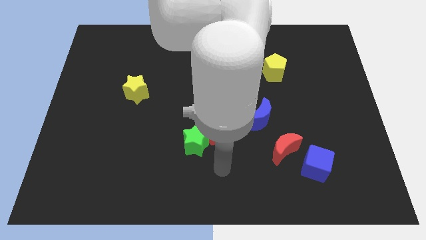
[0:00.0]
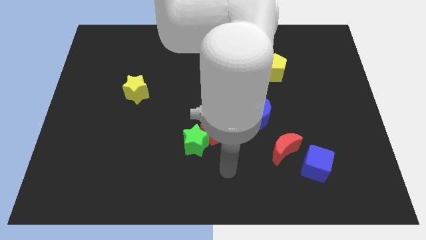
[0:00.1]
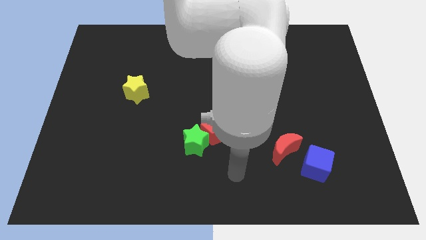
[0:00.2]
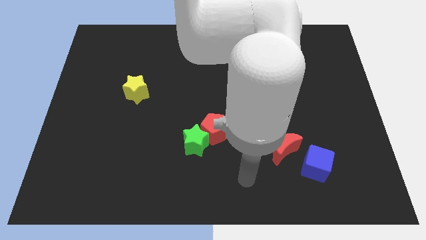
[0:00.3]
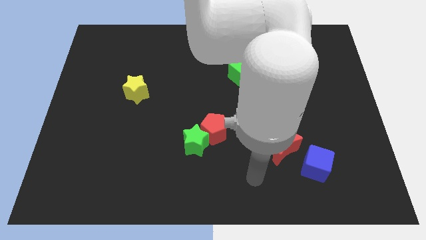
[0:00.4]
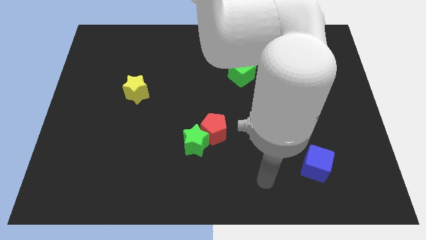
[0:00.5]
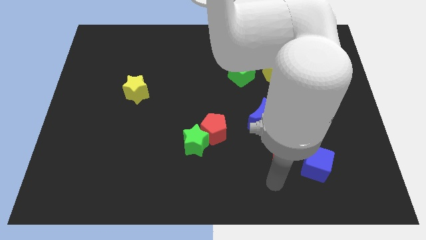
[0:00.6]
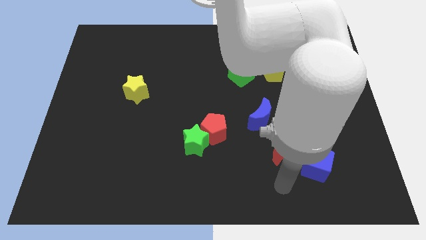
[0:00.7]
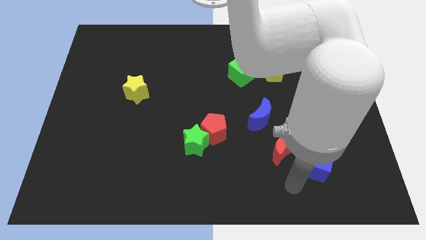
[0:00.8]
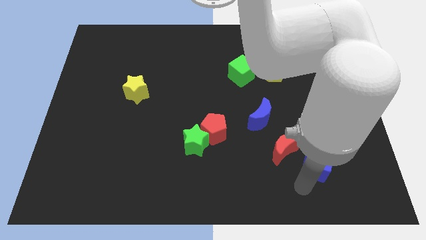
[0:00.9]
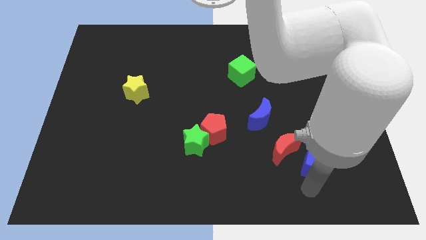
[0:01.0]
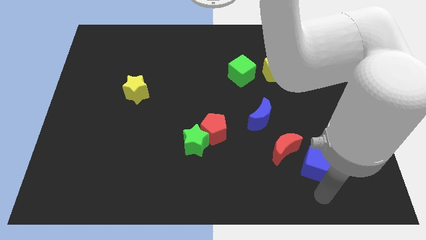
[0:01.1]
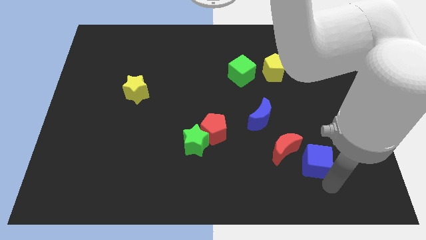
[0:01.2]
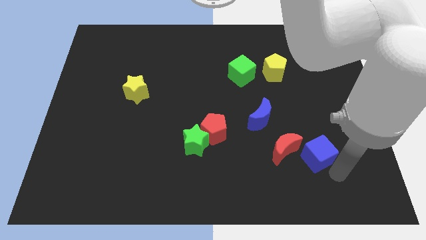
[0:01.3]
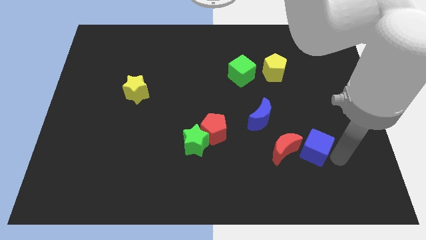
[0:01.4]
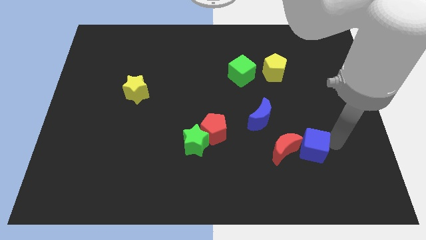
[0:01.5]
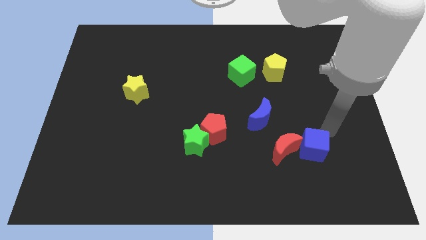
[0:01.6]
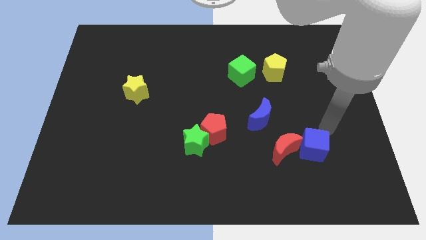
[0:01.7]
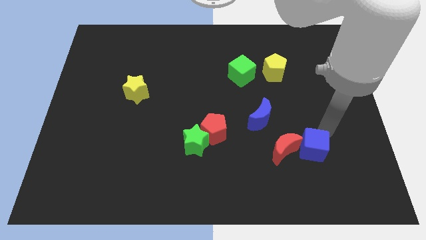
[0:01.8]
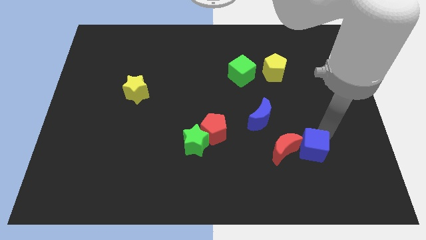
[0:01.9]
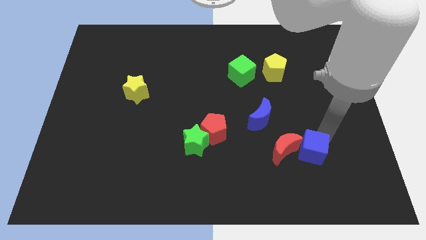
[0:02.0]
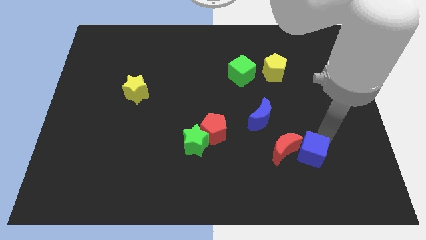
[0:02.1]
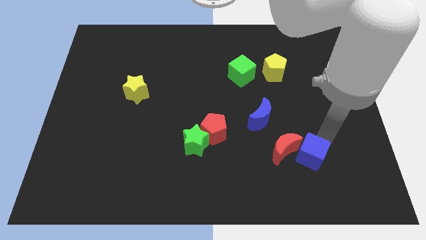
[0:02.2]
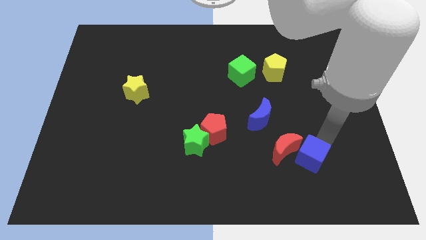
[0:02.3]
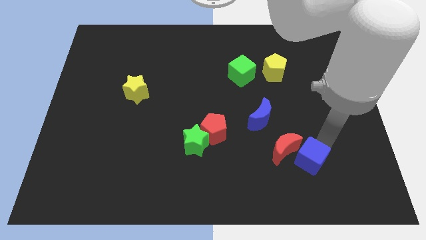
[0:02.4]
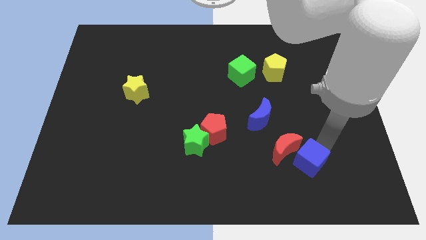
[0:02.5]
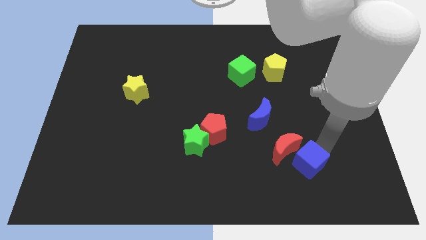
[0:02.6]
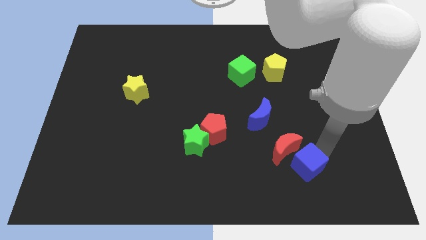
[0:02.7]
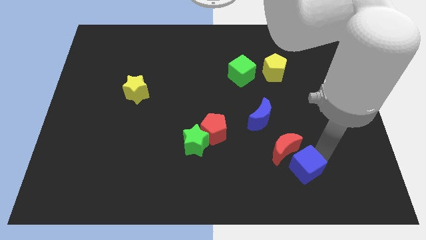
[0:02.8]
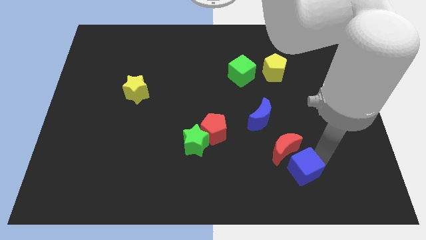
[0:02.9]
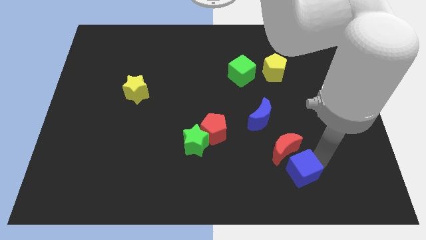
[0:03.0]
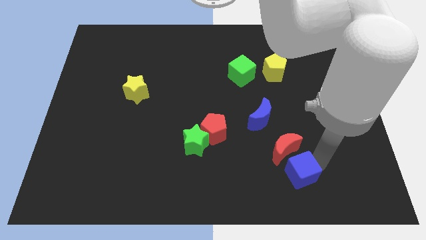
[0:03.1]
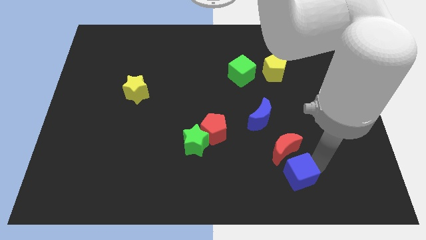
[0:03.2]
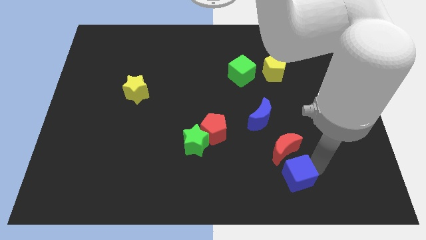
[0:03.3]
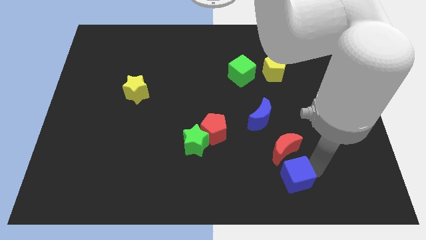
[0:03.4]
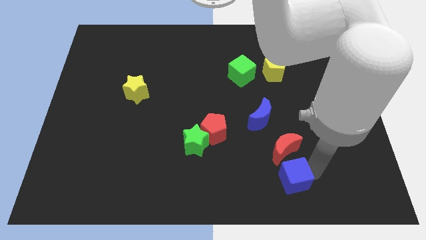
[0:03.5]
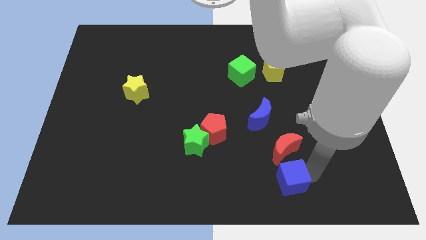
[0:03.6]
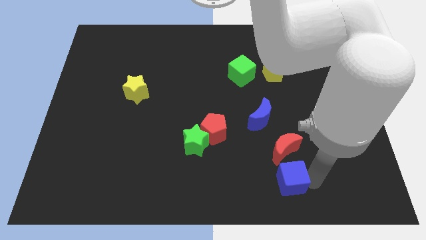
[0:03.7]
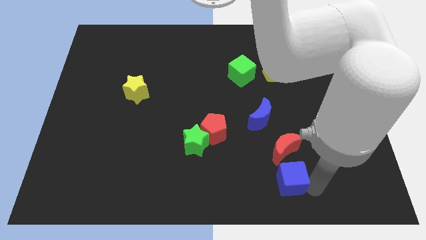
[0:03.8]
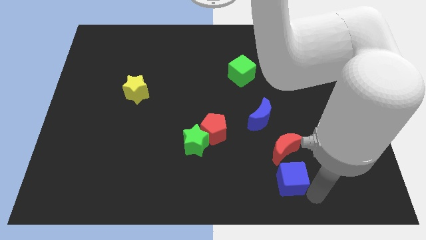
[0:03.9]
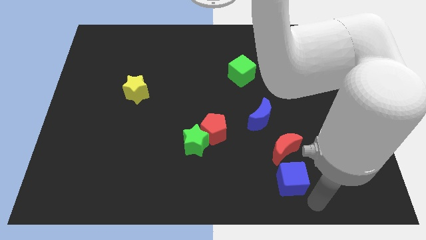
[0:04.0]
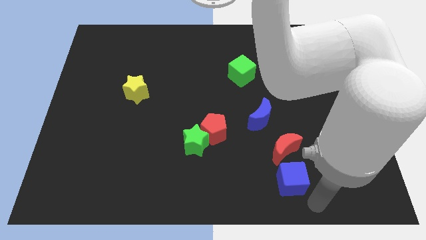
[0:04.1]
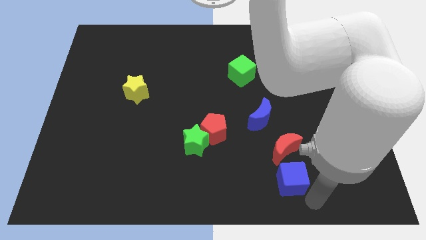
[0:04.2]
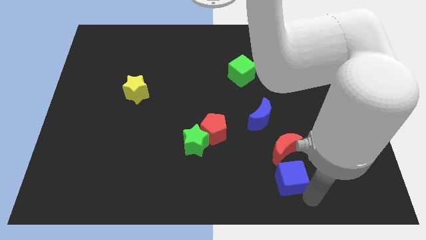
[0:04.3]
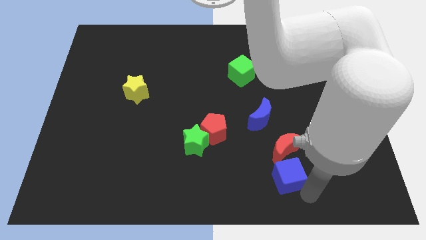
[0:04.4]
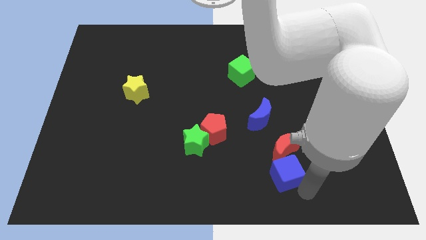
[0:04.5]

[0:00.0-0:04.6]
move the blue cube below the blue moon

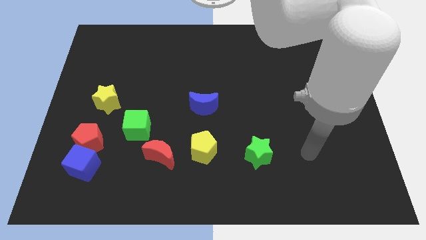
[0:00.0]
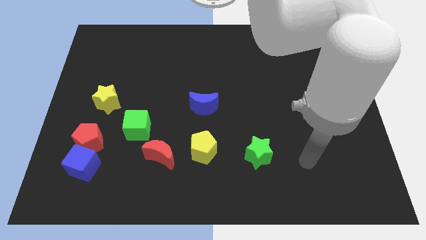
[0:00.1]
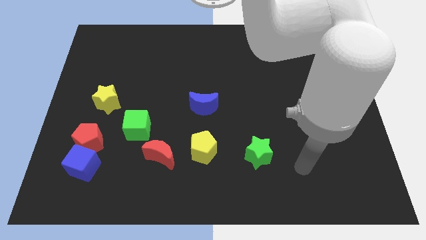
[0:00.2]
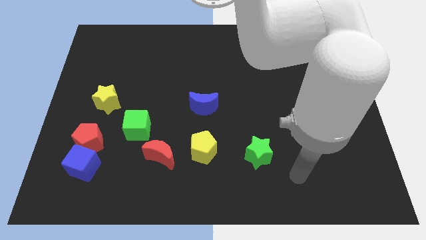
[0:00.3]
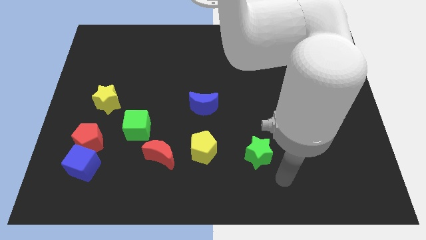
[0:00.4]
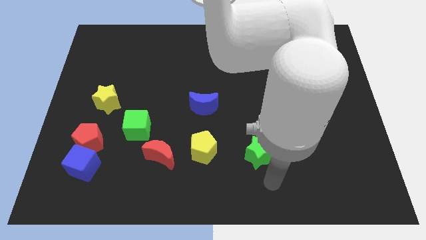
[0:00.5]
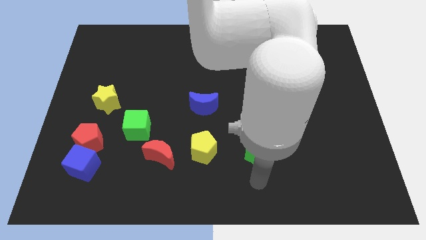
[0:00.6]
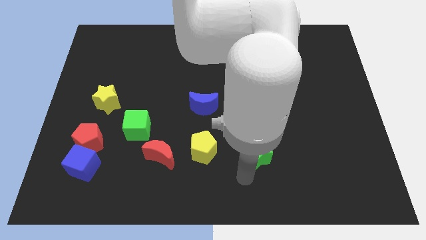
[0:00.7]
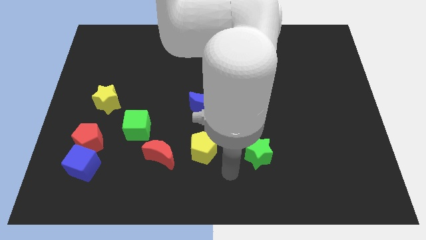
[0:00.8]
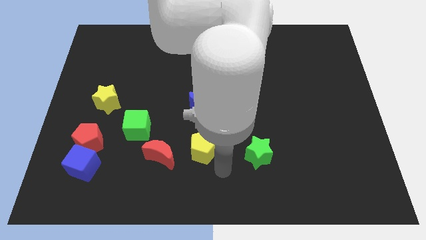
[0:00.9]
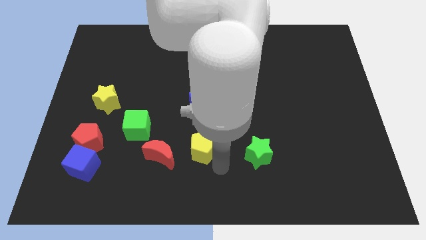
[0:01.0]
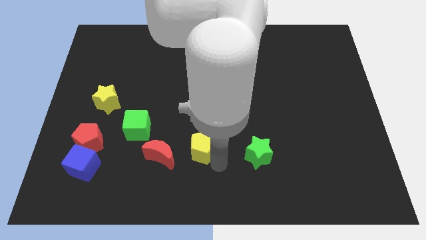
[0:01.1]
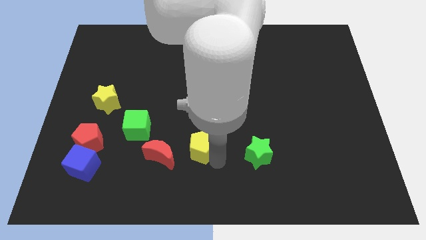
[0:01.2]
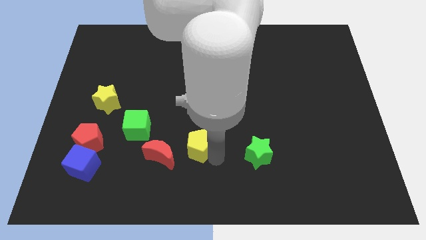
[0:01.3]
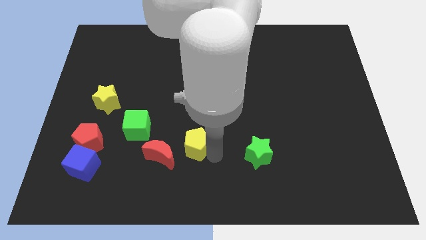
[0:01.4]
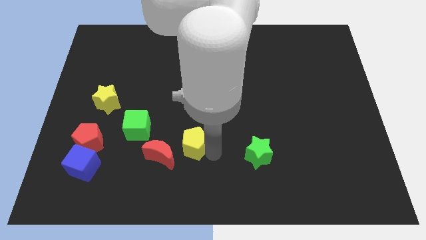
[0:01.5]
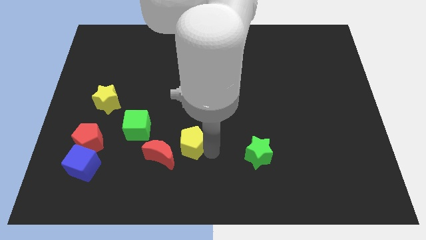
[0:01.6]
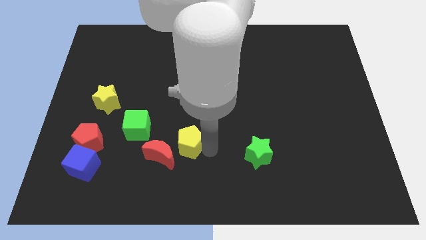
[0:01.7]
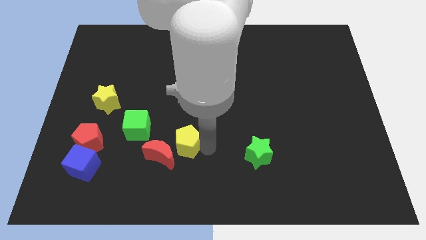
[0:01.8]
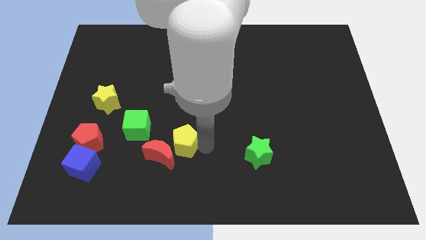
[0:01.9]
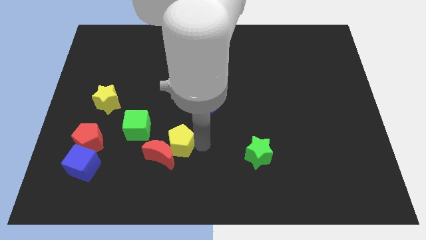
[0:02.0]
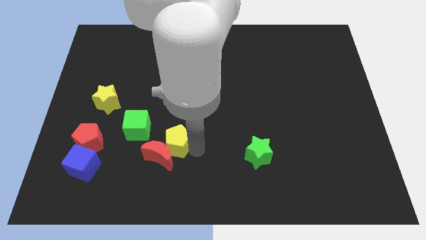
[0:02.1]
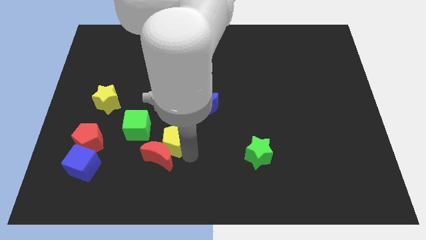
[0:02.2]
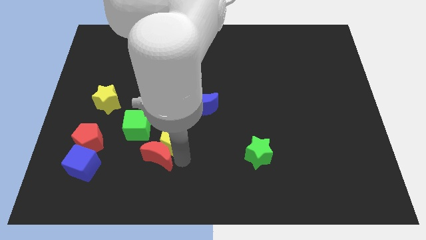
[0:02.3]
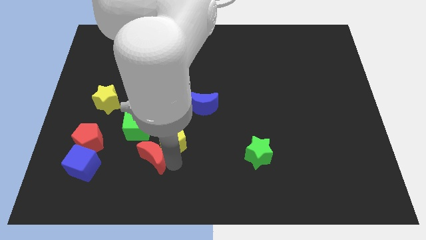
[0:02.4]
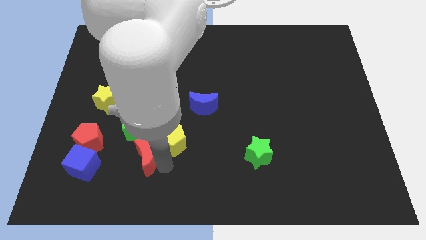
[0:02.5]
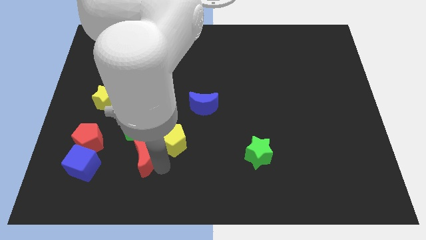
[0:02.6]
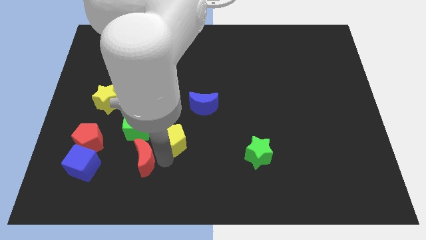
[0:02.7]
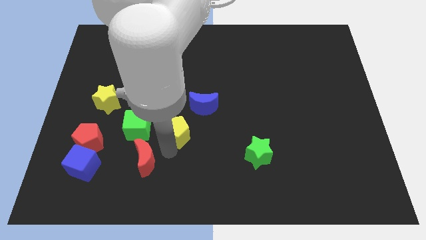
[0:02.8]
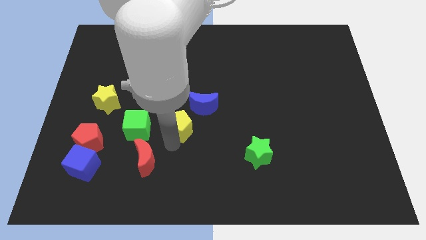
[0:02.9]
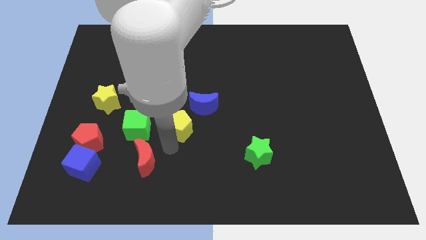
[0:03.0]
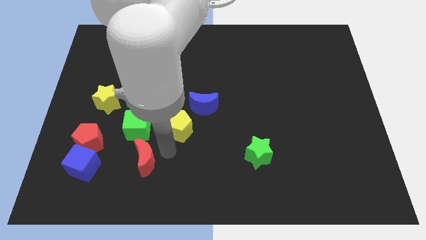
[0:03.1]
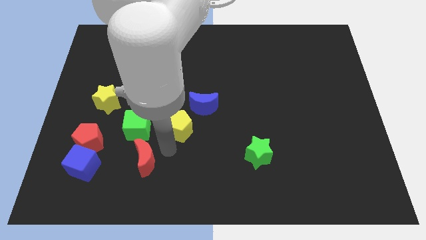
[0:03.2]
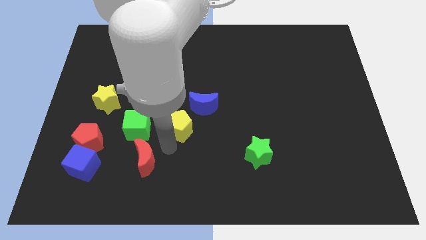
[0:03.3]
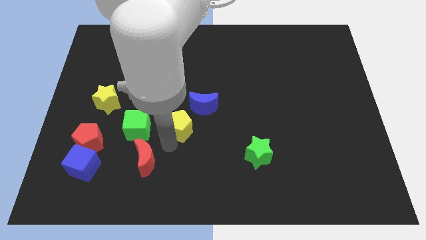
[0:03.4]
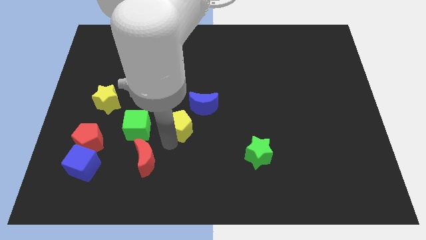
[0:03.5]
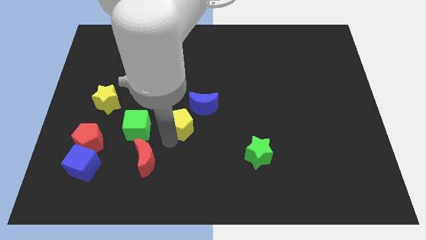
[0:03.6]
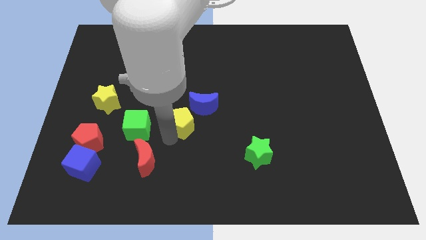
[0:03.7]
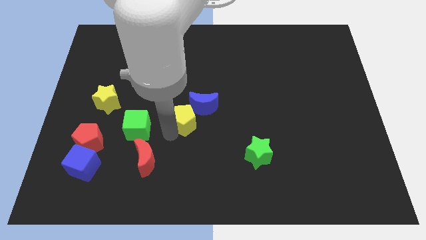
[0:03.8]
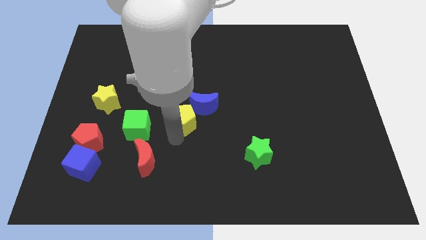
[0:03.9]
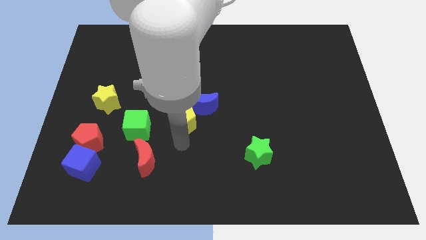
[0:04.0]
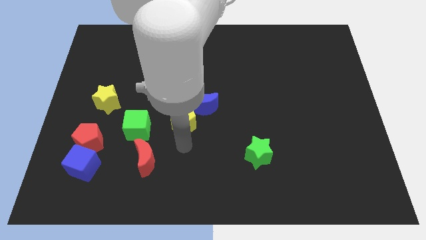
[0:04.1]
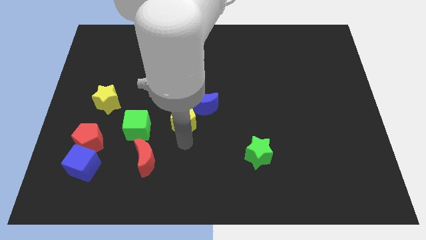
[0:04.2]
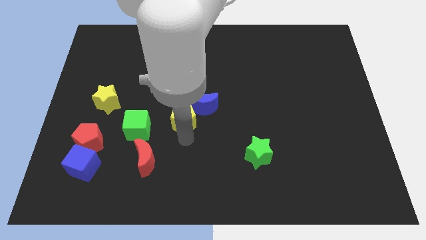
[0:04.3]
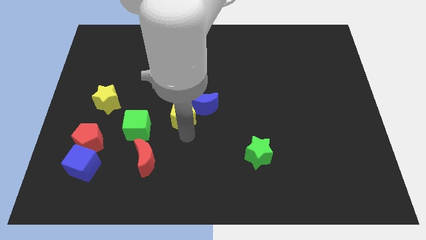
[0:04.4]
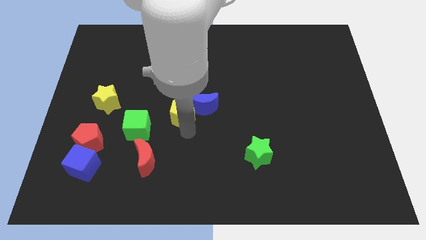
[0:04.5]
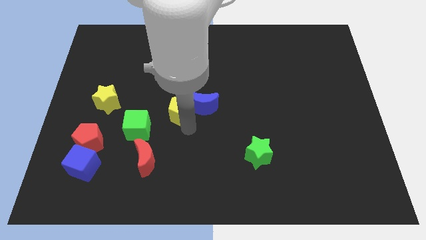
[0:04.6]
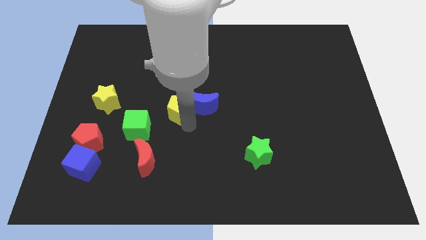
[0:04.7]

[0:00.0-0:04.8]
slide the yellow pentagon diagonally up and to the left of the blue moon
